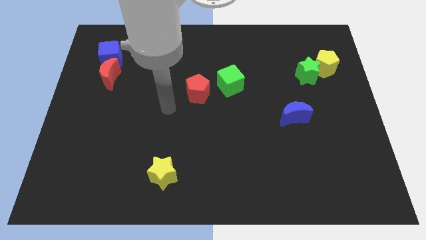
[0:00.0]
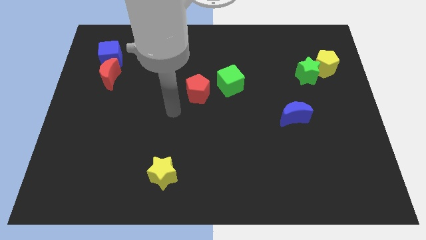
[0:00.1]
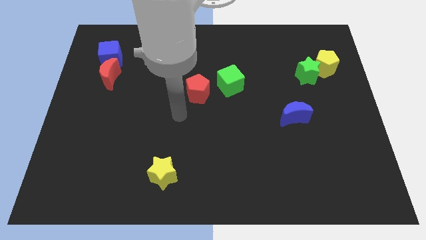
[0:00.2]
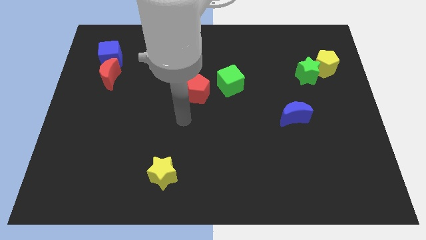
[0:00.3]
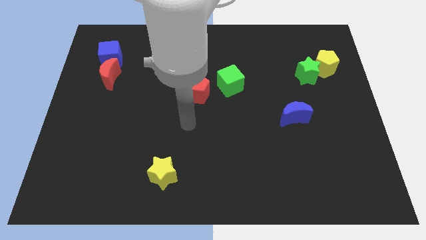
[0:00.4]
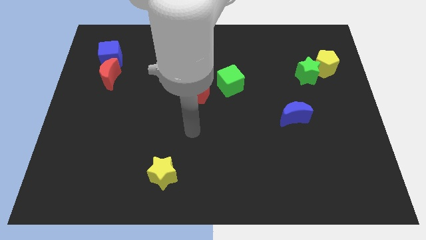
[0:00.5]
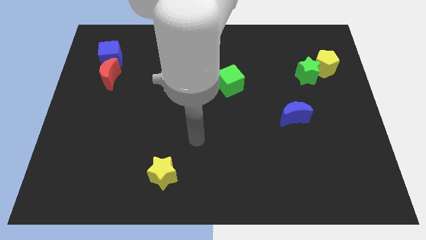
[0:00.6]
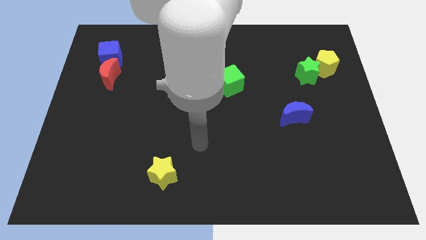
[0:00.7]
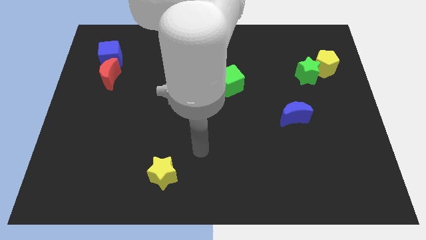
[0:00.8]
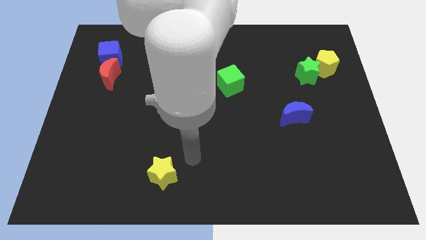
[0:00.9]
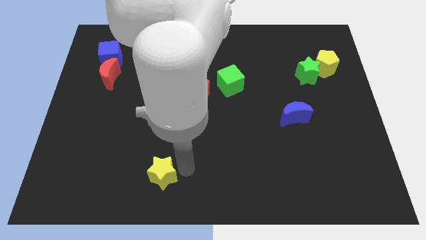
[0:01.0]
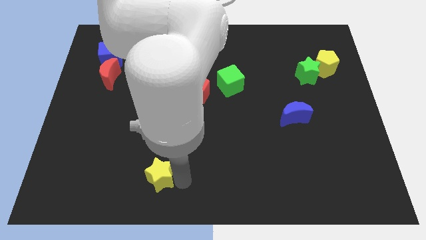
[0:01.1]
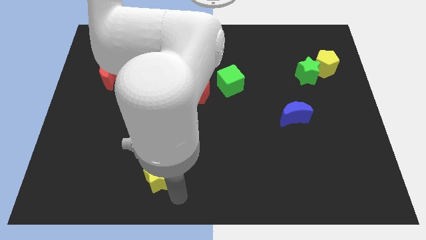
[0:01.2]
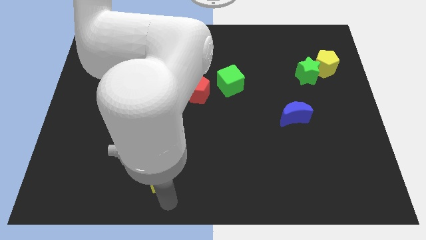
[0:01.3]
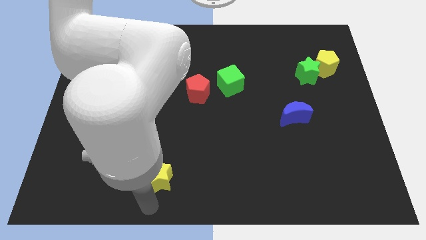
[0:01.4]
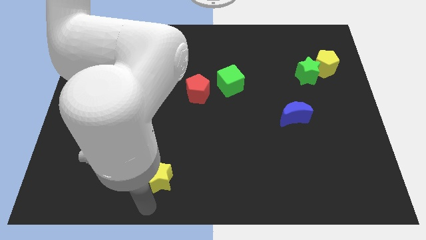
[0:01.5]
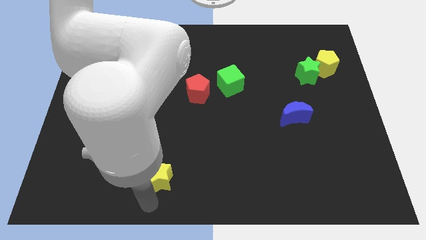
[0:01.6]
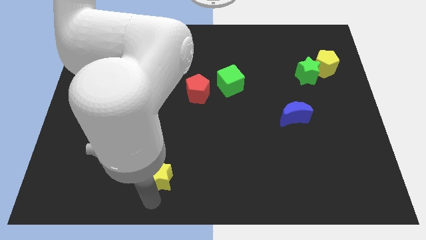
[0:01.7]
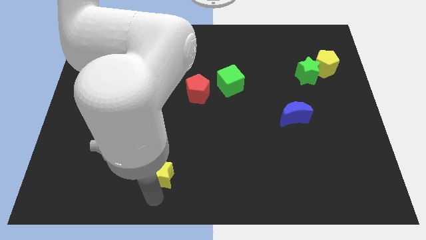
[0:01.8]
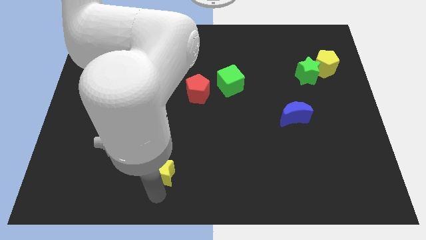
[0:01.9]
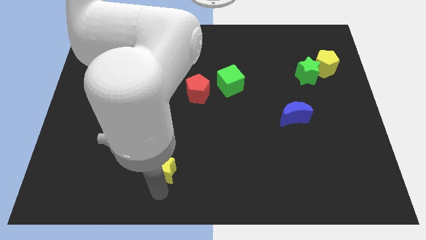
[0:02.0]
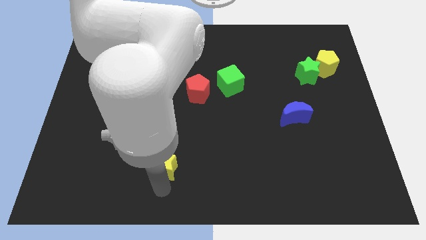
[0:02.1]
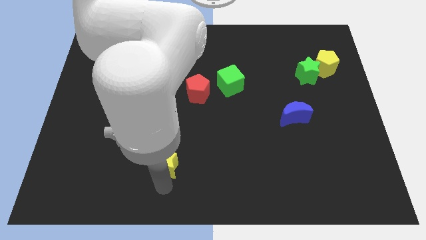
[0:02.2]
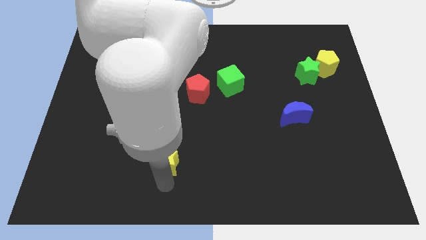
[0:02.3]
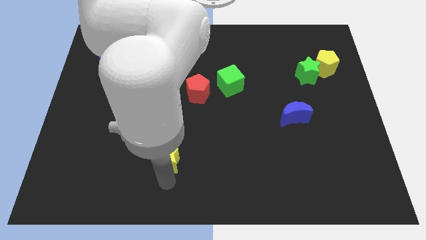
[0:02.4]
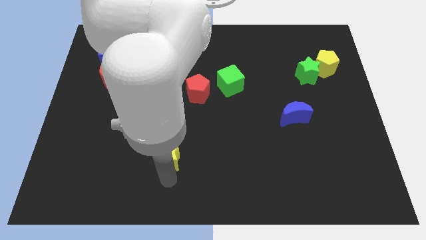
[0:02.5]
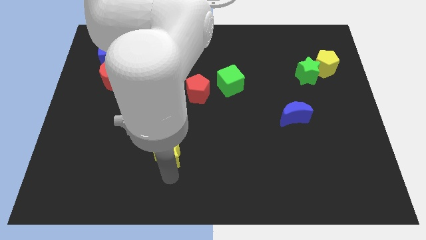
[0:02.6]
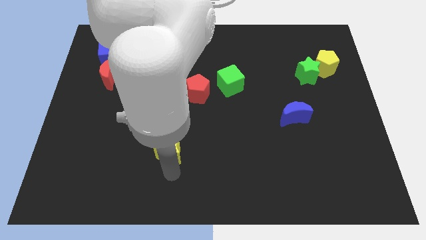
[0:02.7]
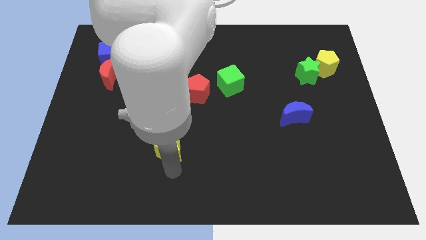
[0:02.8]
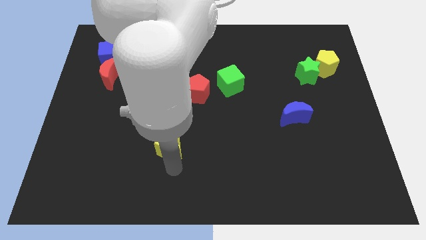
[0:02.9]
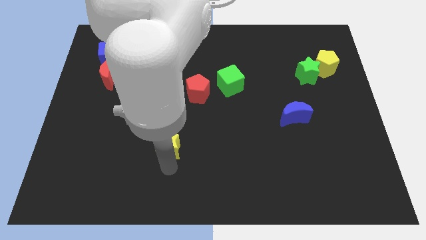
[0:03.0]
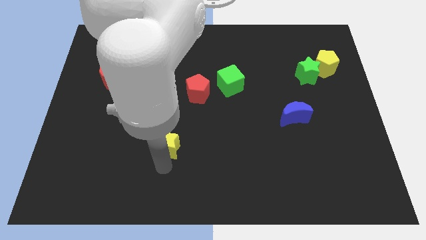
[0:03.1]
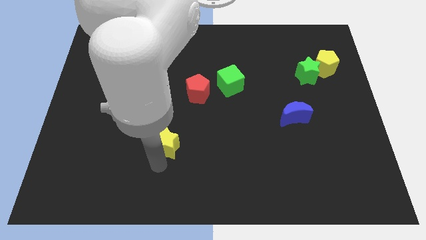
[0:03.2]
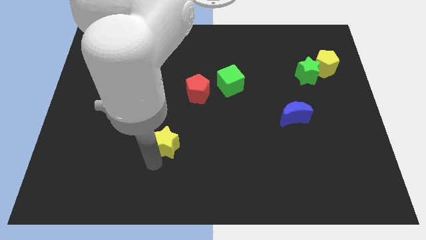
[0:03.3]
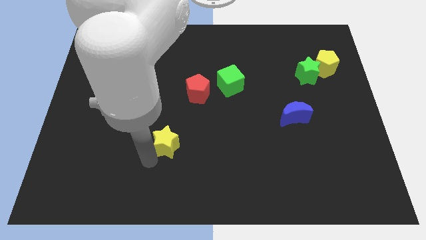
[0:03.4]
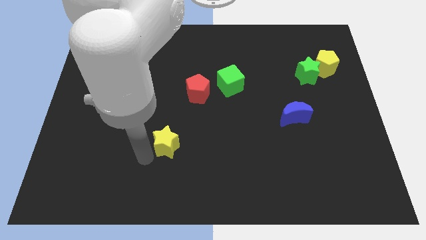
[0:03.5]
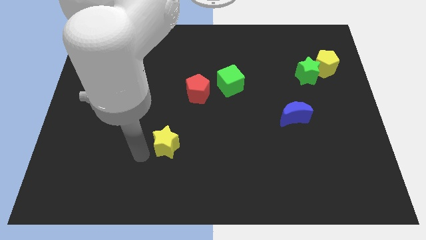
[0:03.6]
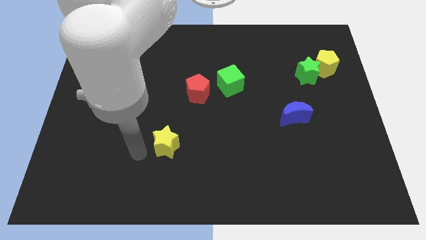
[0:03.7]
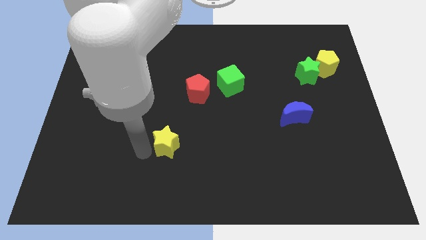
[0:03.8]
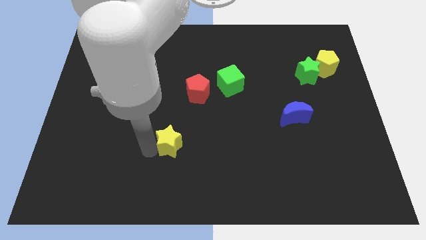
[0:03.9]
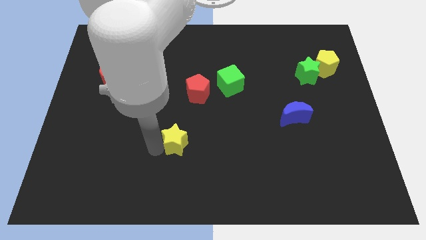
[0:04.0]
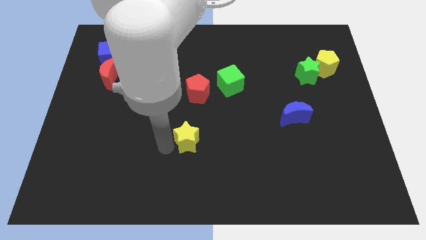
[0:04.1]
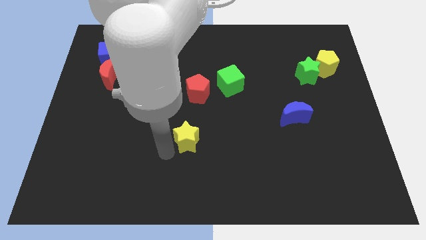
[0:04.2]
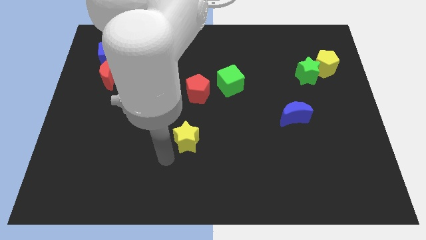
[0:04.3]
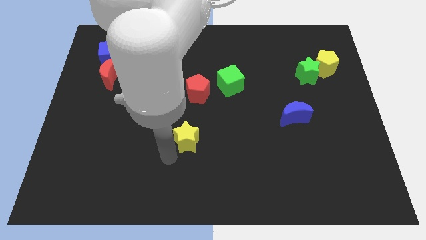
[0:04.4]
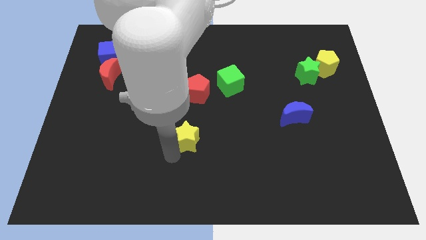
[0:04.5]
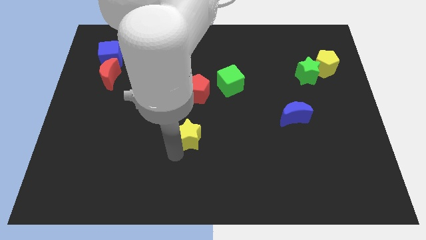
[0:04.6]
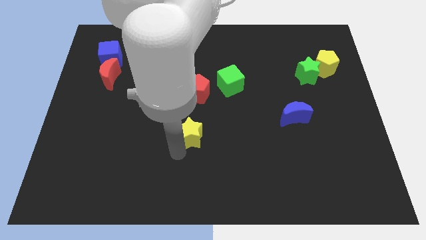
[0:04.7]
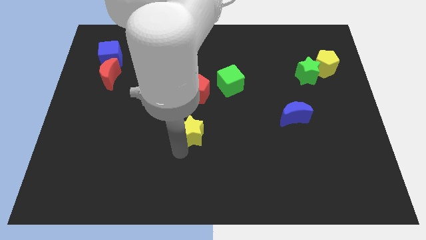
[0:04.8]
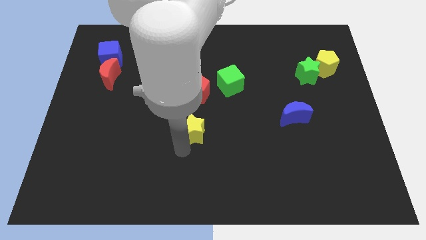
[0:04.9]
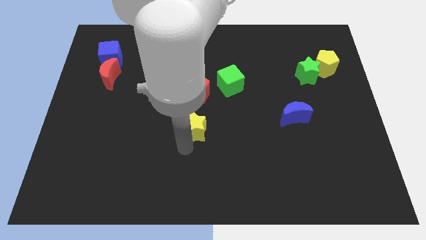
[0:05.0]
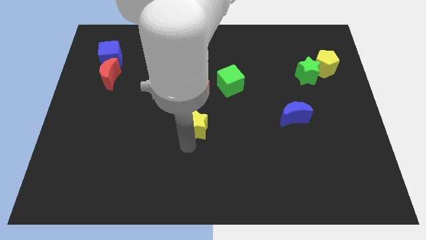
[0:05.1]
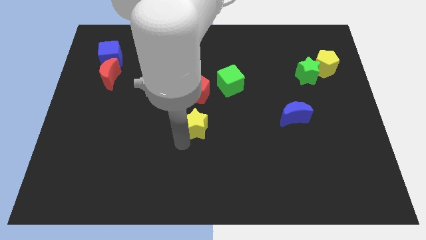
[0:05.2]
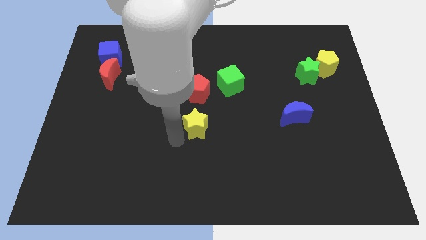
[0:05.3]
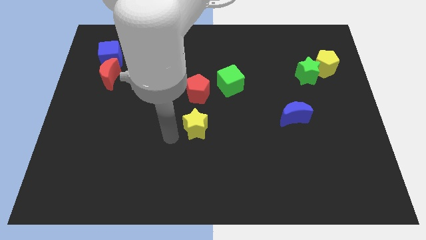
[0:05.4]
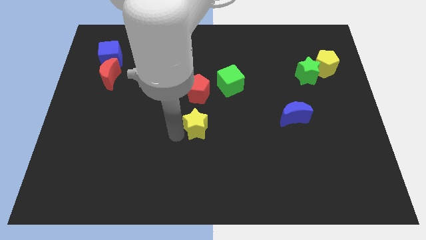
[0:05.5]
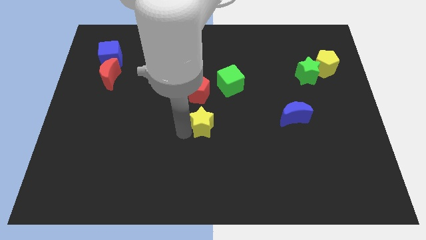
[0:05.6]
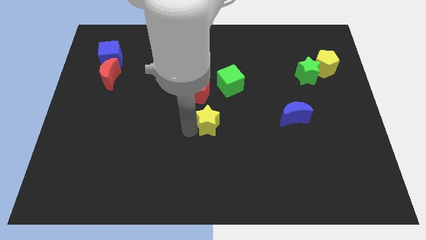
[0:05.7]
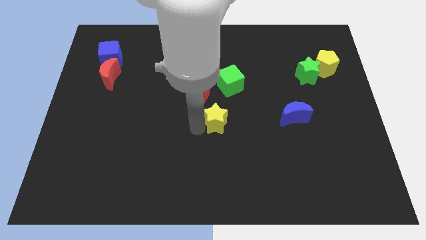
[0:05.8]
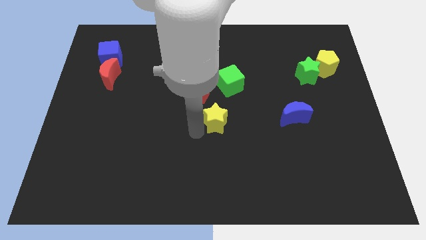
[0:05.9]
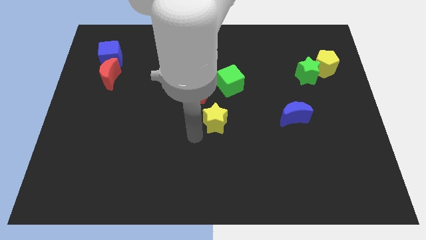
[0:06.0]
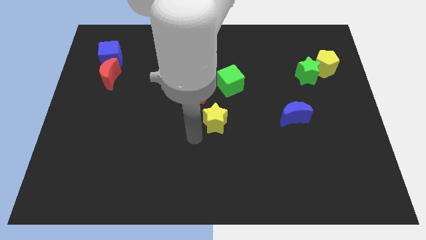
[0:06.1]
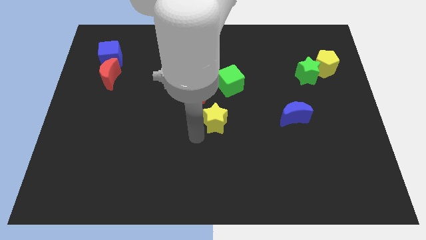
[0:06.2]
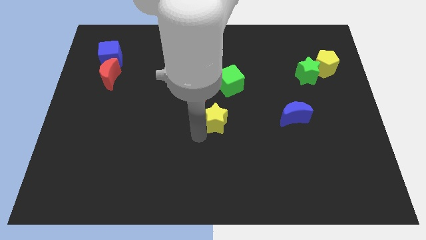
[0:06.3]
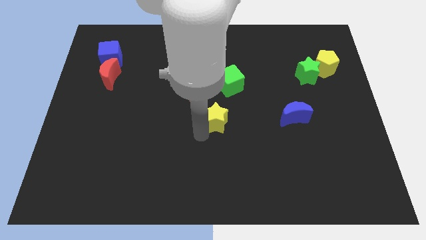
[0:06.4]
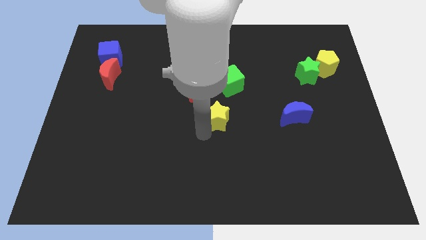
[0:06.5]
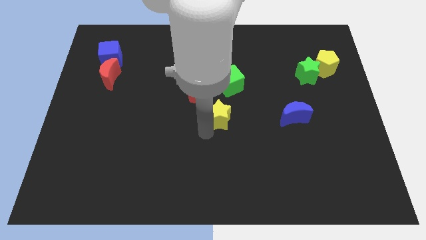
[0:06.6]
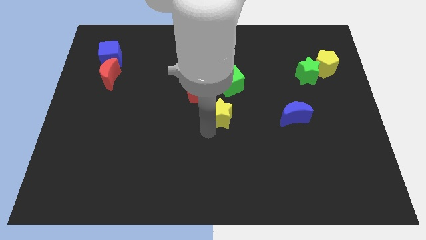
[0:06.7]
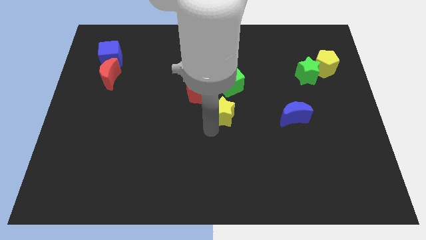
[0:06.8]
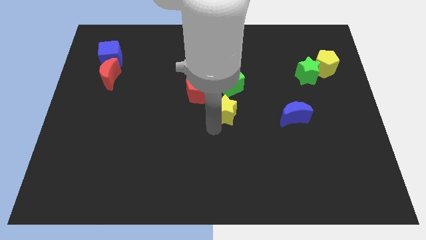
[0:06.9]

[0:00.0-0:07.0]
slide the yellow star diagonally up and right

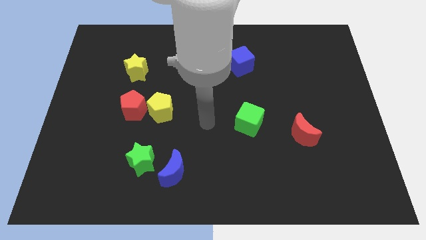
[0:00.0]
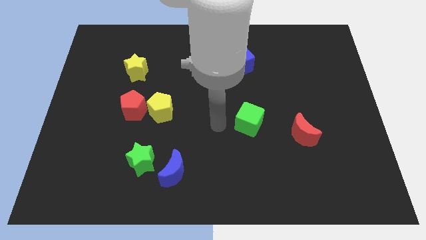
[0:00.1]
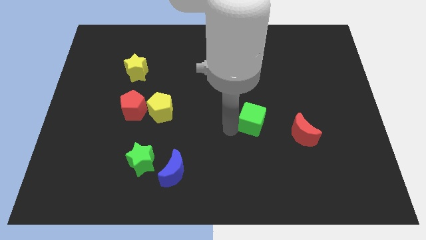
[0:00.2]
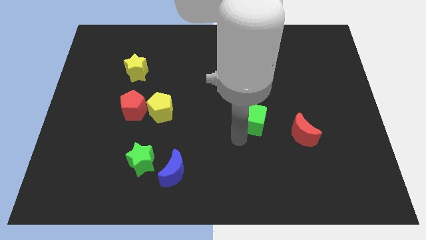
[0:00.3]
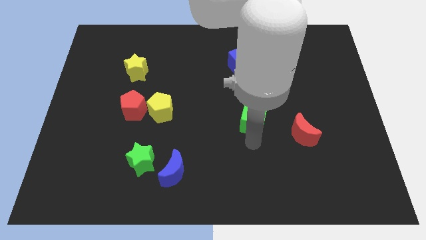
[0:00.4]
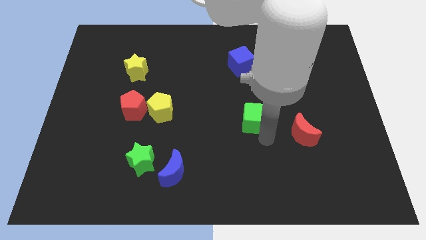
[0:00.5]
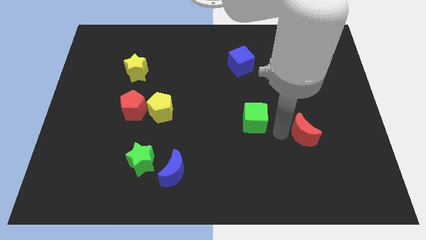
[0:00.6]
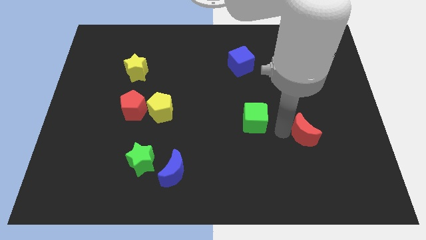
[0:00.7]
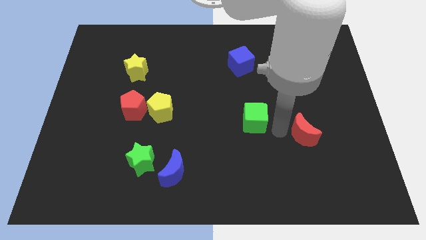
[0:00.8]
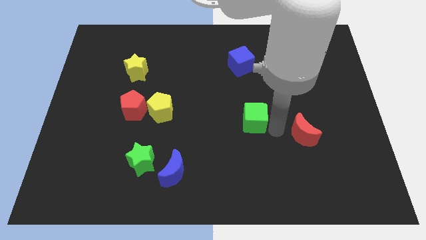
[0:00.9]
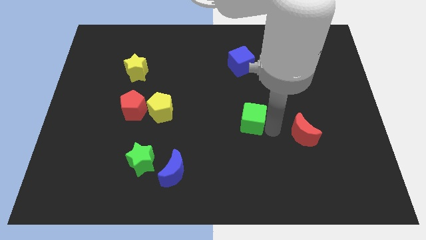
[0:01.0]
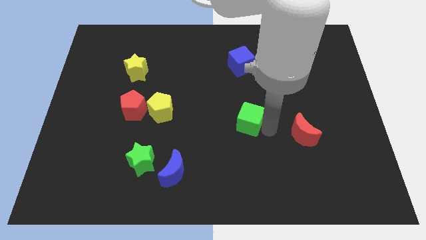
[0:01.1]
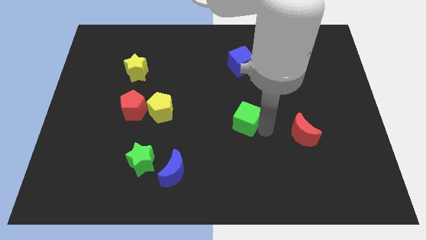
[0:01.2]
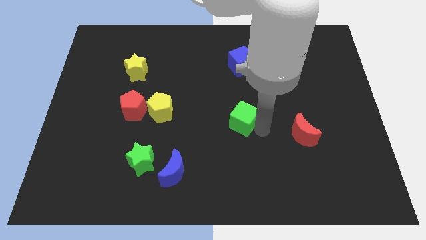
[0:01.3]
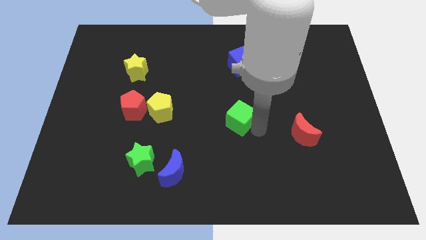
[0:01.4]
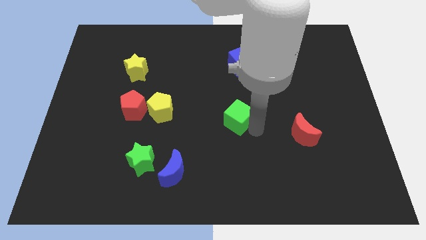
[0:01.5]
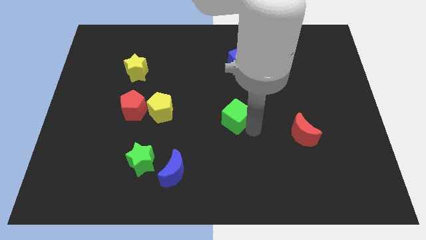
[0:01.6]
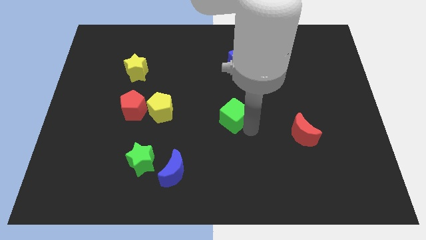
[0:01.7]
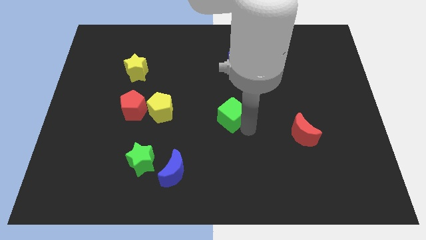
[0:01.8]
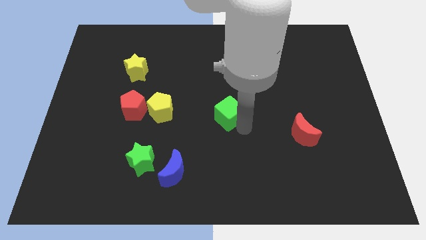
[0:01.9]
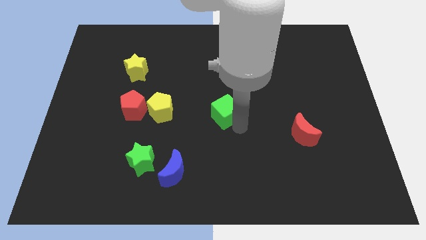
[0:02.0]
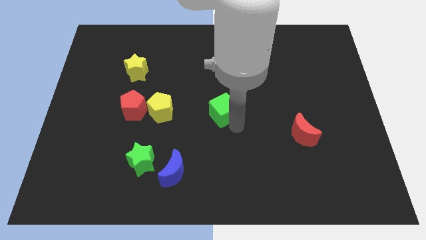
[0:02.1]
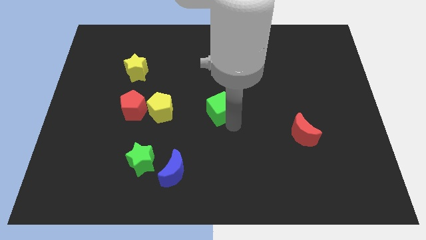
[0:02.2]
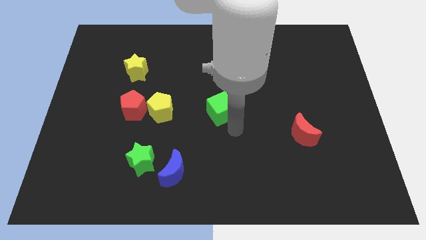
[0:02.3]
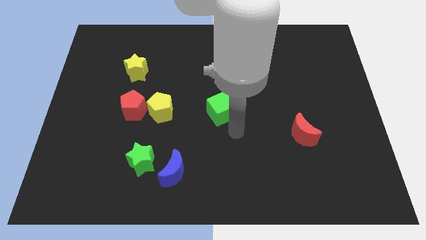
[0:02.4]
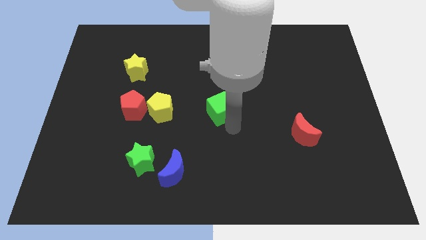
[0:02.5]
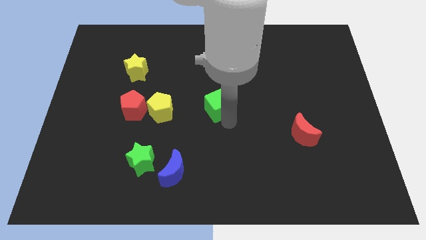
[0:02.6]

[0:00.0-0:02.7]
slide the green cube diagonally upwards and left a bit
